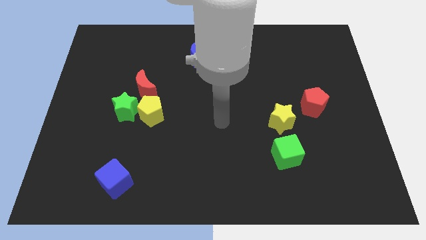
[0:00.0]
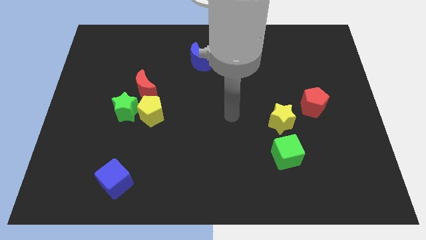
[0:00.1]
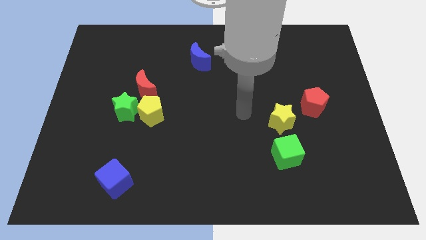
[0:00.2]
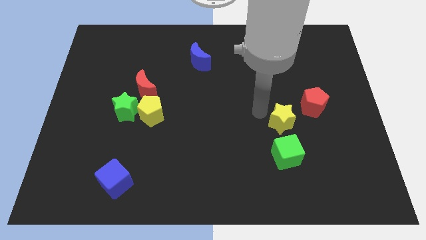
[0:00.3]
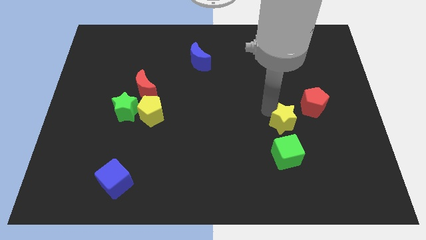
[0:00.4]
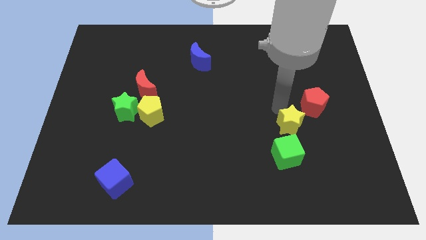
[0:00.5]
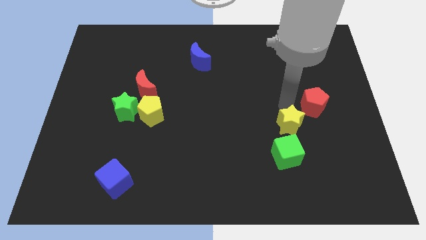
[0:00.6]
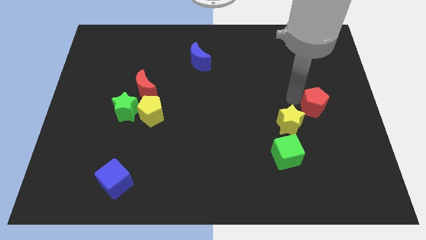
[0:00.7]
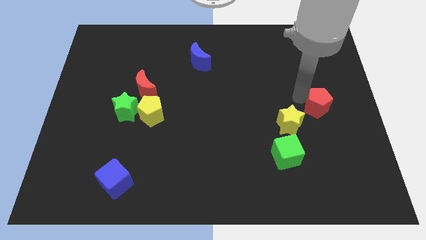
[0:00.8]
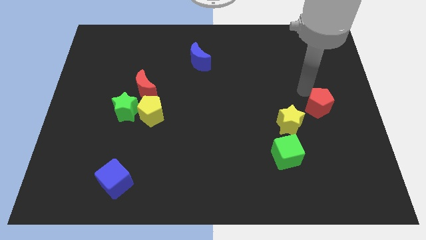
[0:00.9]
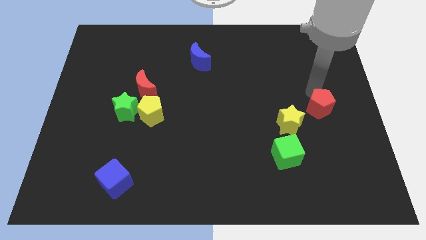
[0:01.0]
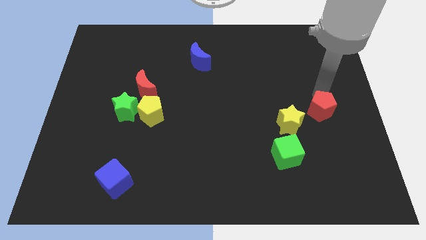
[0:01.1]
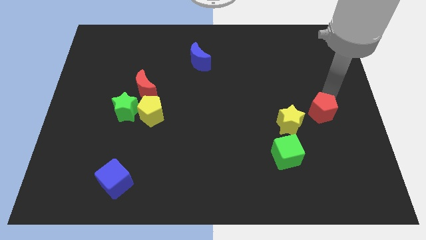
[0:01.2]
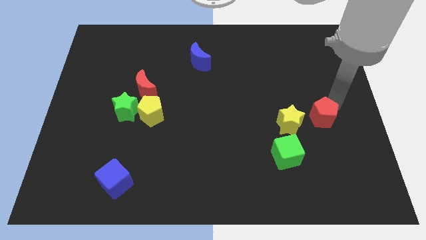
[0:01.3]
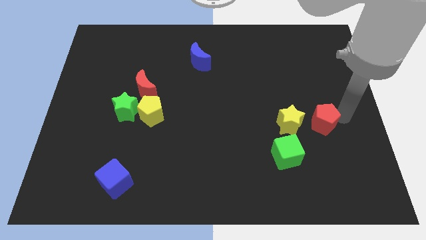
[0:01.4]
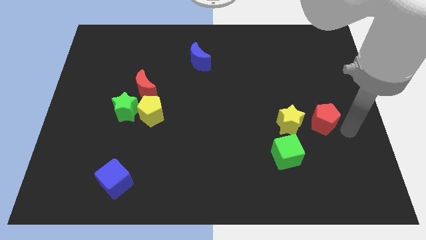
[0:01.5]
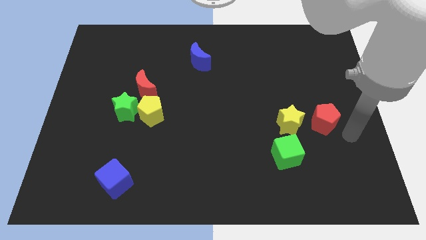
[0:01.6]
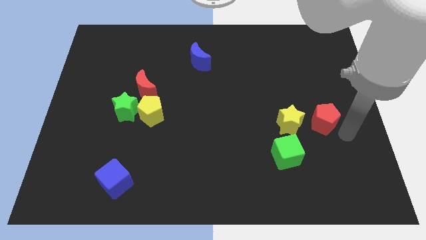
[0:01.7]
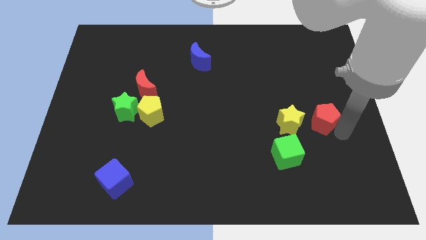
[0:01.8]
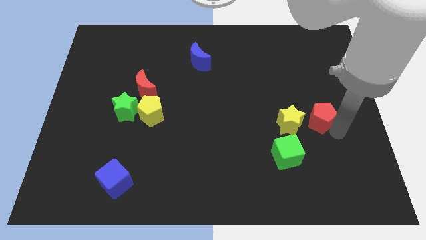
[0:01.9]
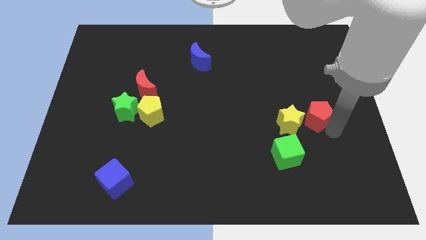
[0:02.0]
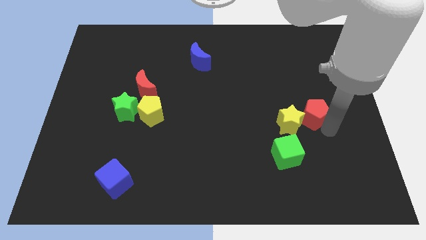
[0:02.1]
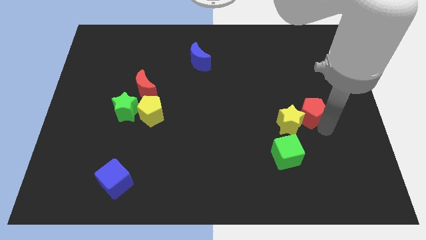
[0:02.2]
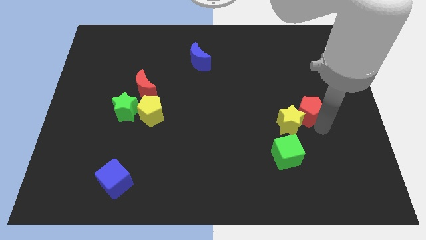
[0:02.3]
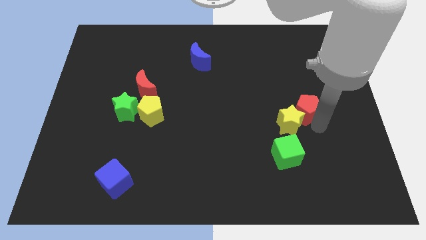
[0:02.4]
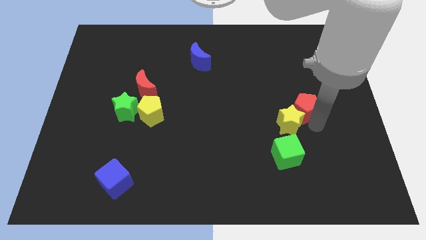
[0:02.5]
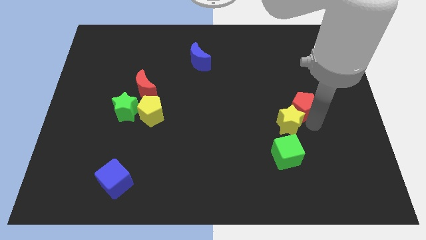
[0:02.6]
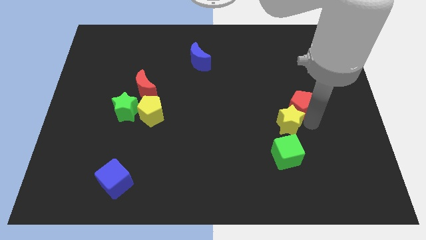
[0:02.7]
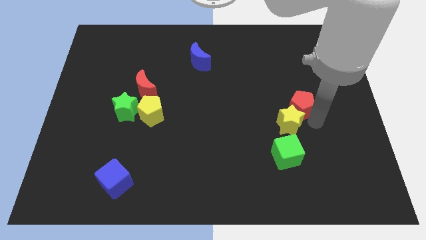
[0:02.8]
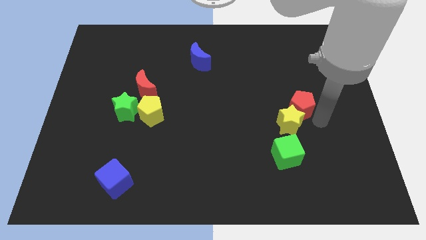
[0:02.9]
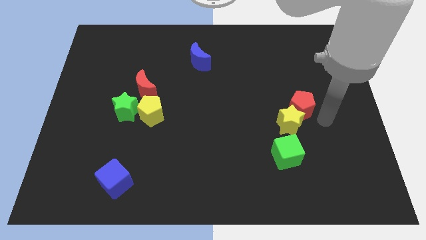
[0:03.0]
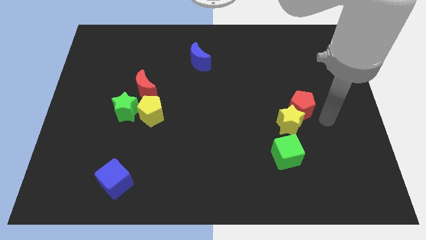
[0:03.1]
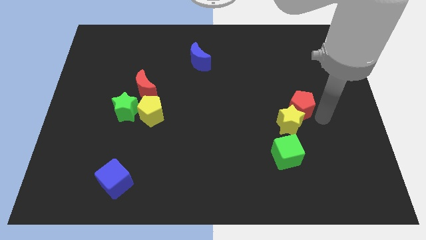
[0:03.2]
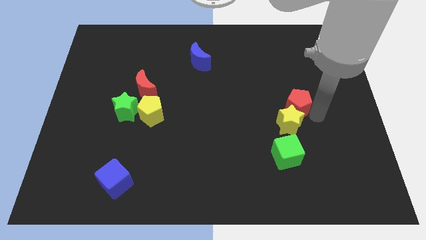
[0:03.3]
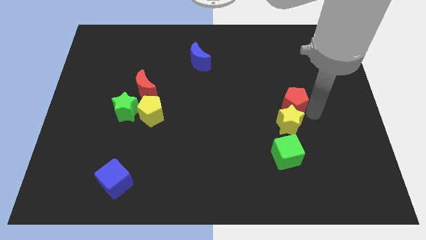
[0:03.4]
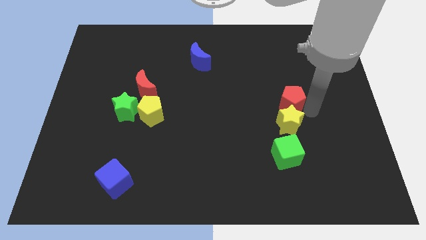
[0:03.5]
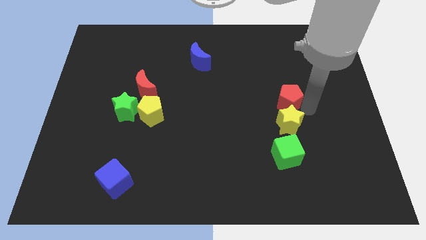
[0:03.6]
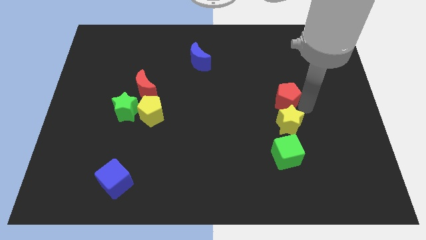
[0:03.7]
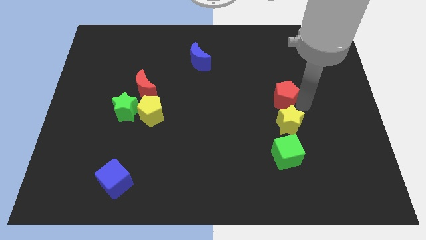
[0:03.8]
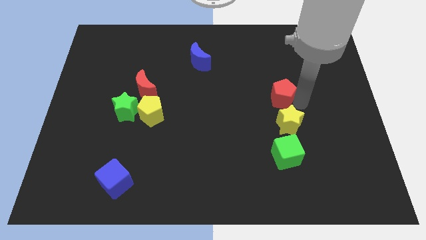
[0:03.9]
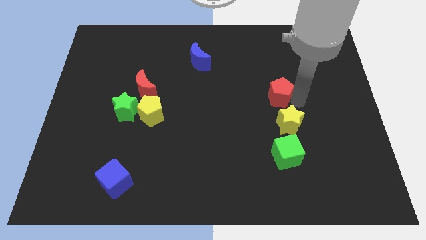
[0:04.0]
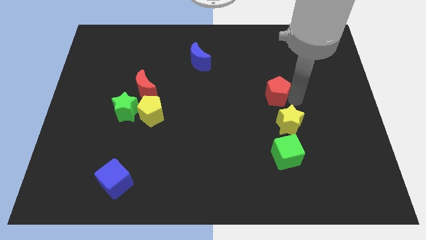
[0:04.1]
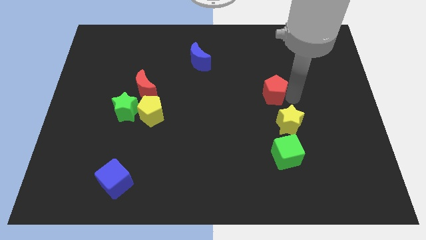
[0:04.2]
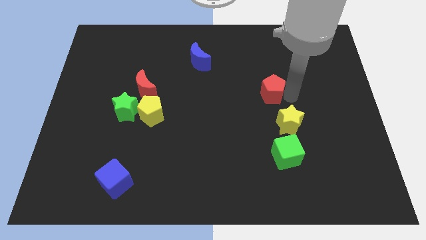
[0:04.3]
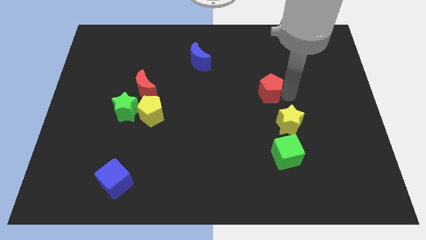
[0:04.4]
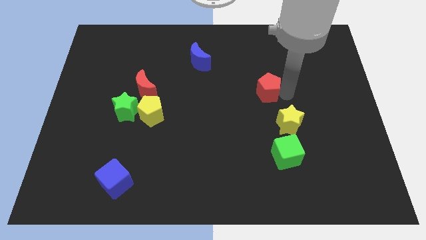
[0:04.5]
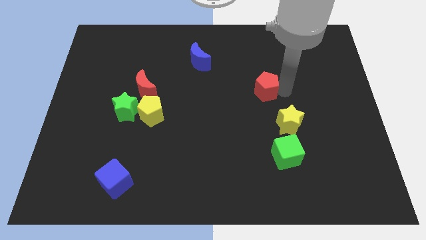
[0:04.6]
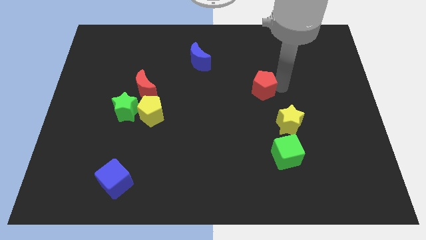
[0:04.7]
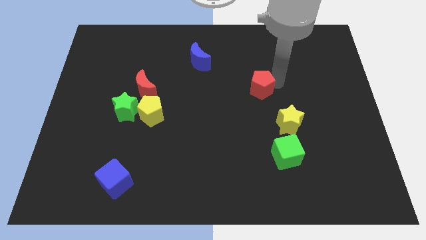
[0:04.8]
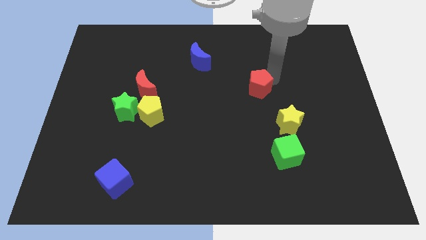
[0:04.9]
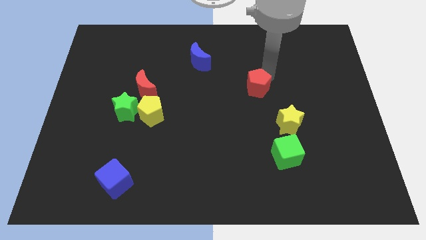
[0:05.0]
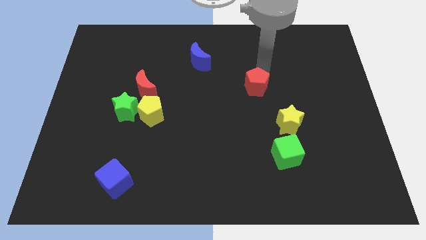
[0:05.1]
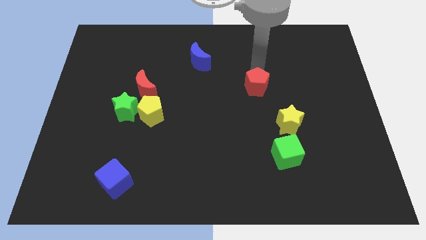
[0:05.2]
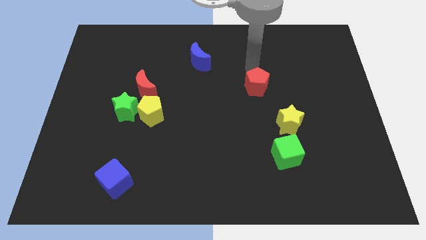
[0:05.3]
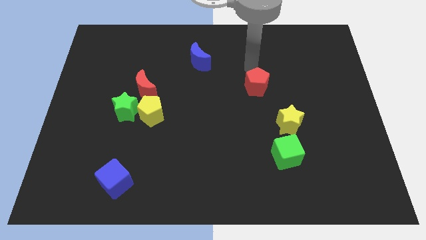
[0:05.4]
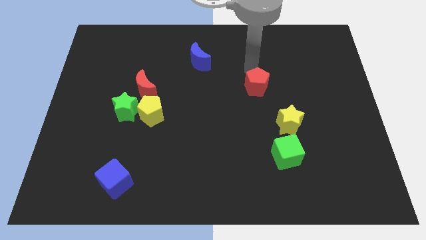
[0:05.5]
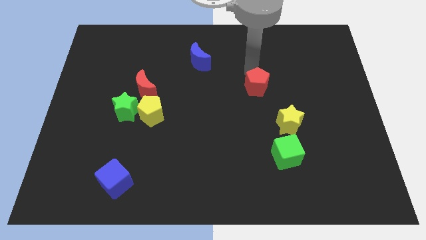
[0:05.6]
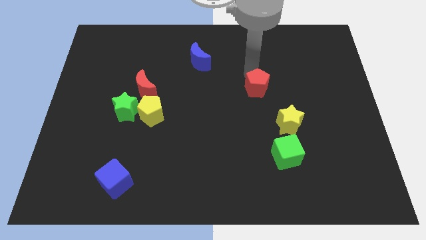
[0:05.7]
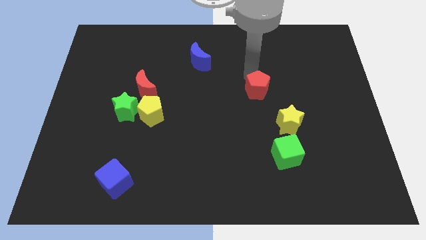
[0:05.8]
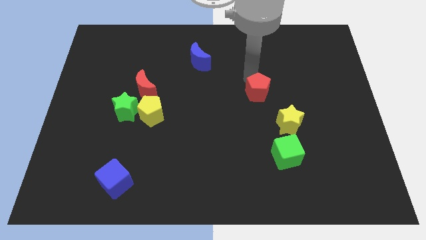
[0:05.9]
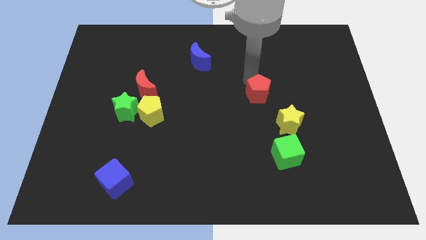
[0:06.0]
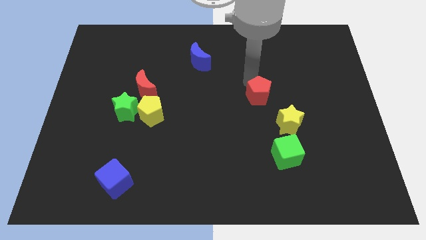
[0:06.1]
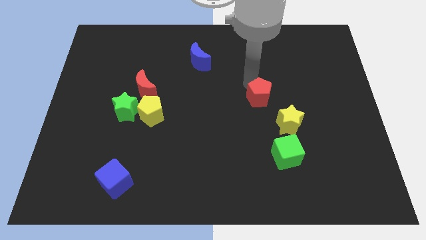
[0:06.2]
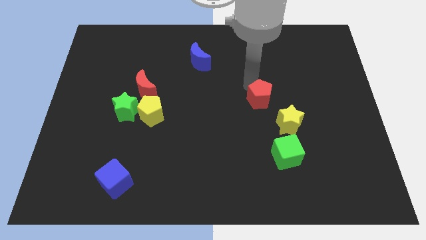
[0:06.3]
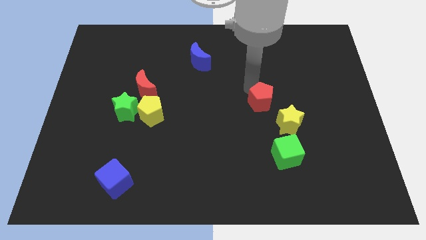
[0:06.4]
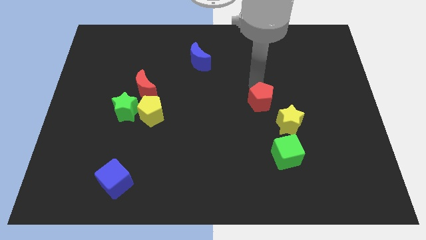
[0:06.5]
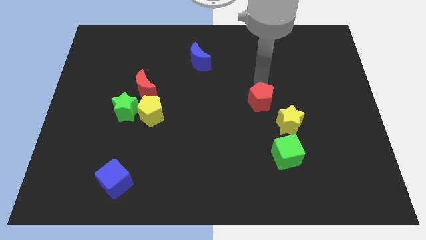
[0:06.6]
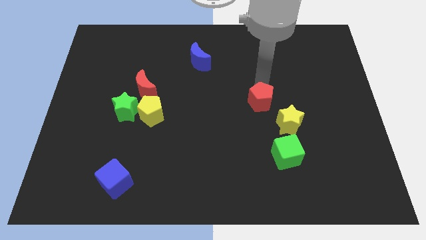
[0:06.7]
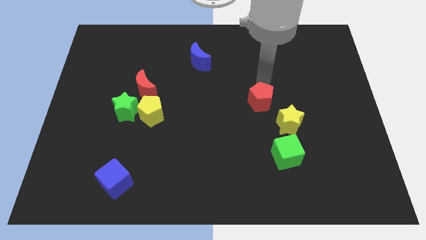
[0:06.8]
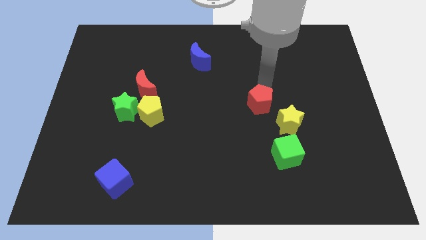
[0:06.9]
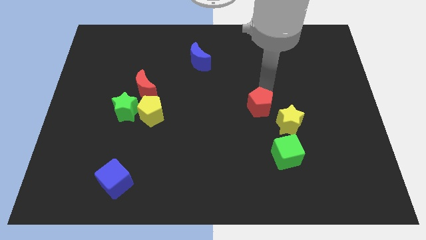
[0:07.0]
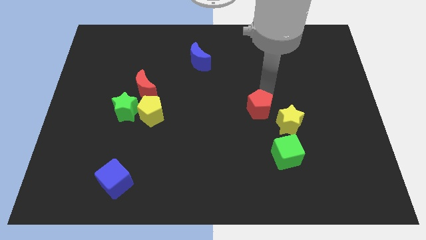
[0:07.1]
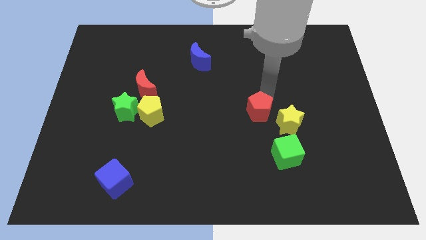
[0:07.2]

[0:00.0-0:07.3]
slightly slide the red pentagon down and then to the left

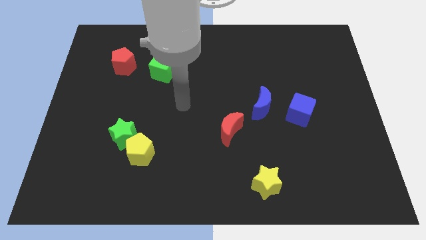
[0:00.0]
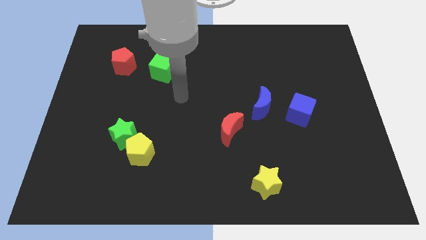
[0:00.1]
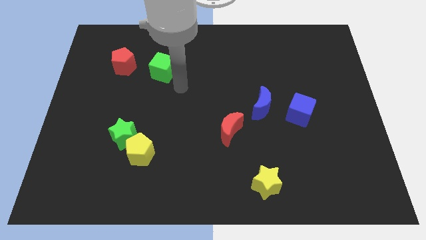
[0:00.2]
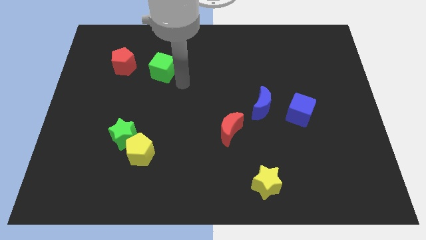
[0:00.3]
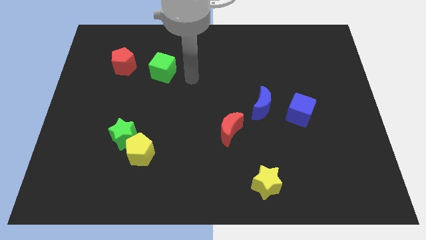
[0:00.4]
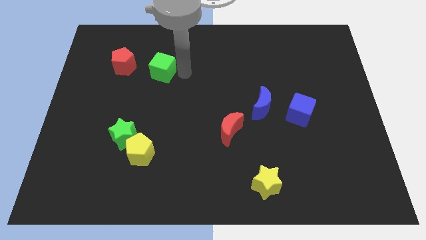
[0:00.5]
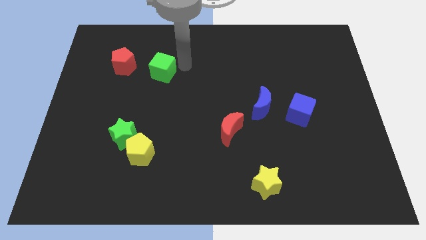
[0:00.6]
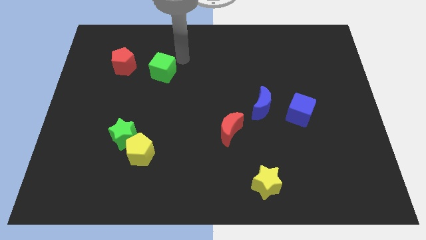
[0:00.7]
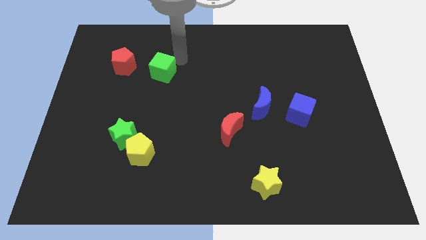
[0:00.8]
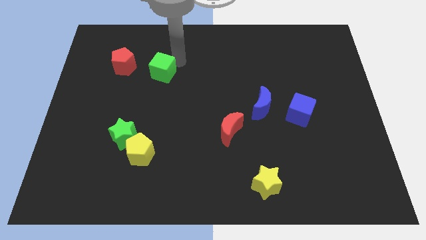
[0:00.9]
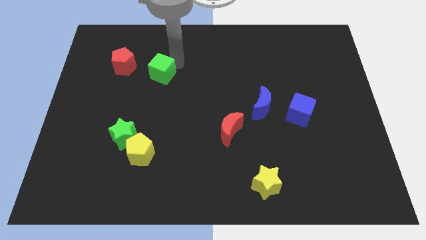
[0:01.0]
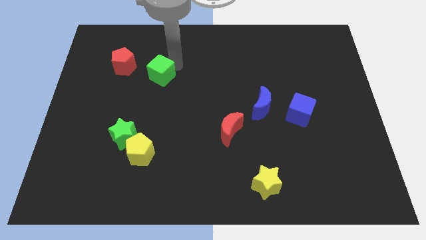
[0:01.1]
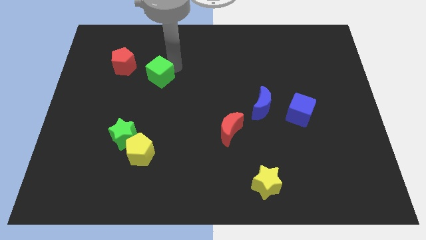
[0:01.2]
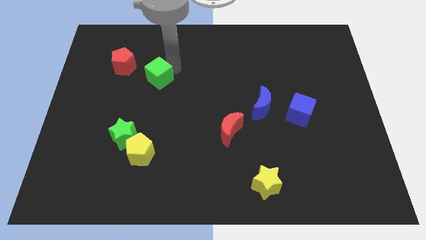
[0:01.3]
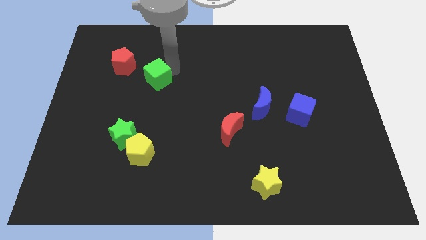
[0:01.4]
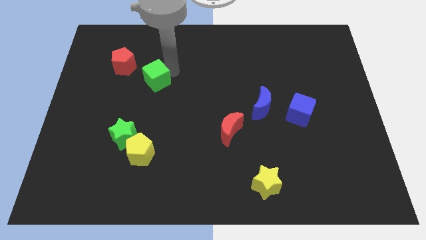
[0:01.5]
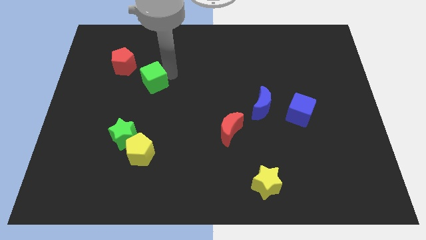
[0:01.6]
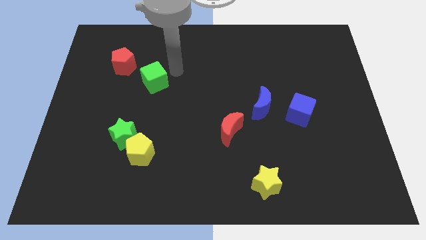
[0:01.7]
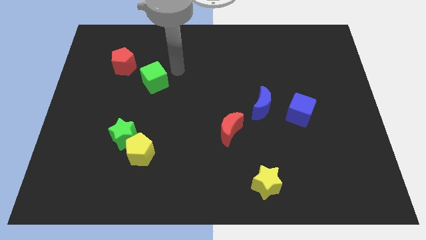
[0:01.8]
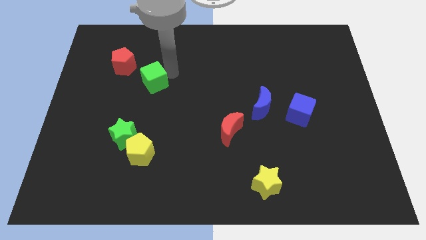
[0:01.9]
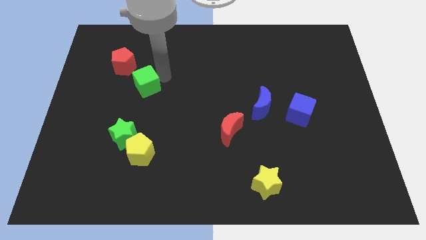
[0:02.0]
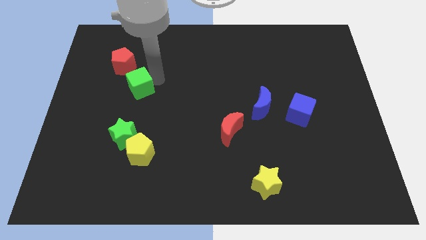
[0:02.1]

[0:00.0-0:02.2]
move the green cube slightly downwards and left
